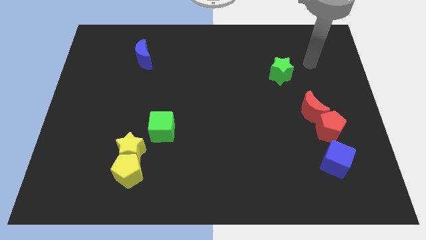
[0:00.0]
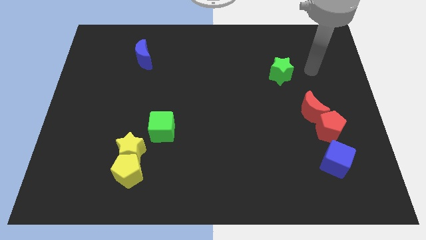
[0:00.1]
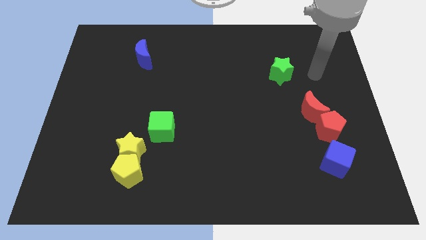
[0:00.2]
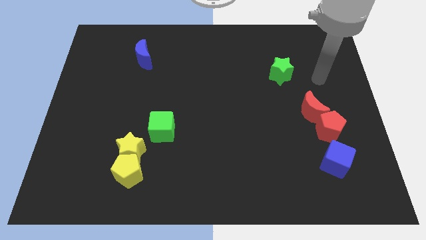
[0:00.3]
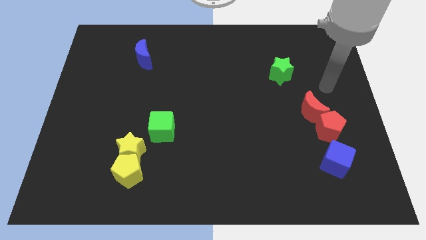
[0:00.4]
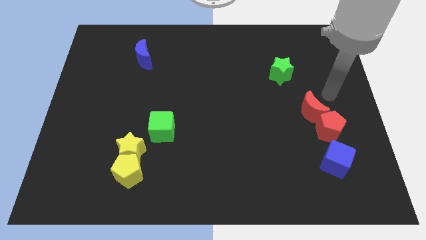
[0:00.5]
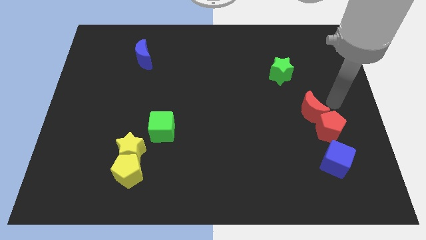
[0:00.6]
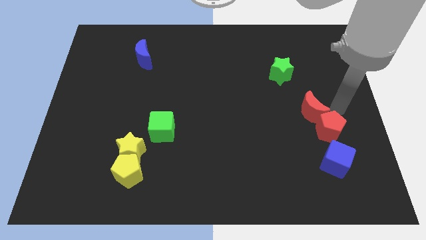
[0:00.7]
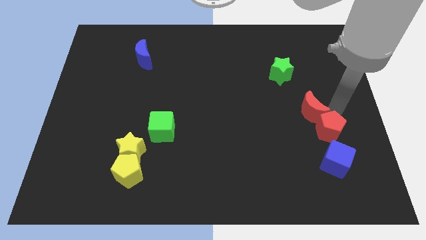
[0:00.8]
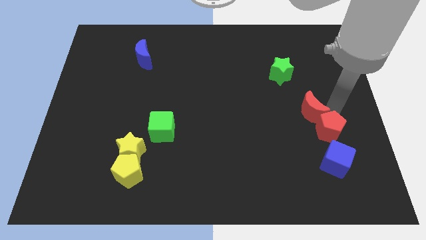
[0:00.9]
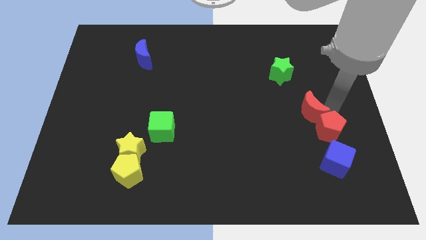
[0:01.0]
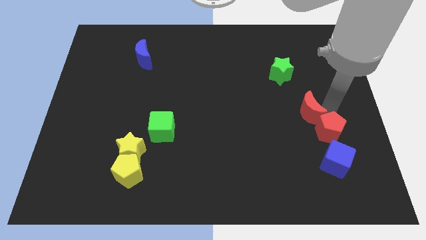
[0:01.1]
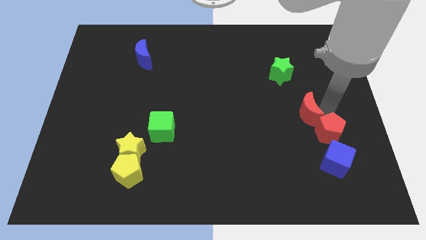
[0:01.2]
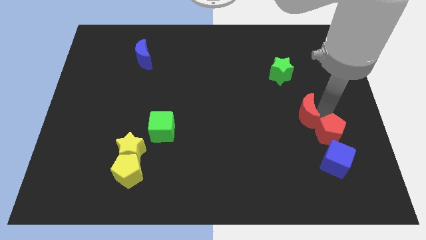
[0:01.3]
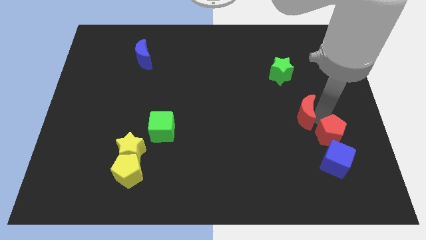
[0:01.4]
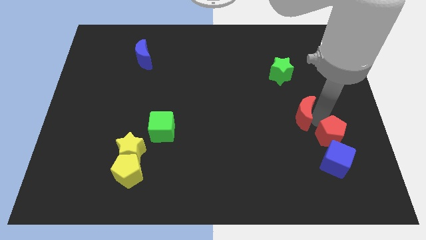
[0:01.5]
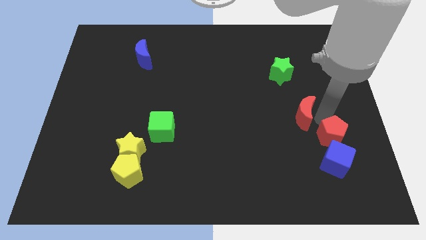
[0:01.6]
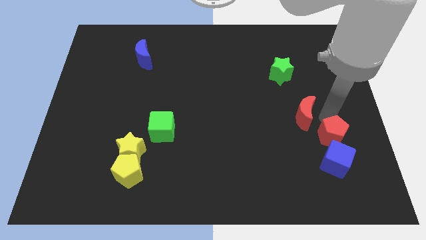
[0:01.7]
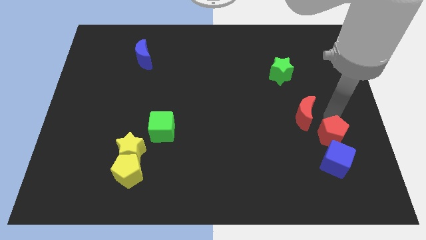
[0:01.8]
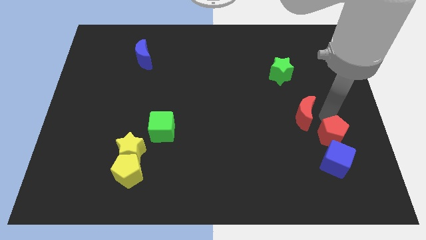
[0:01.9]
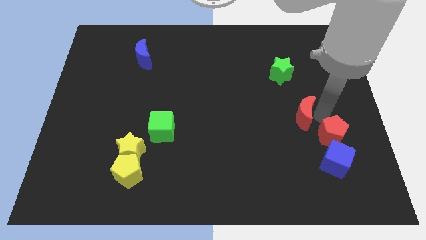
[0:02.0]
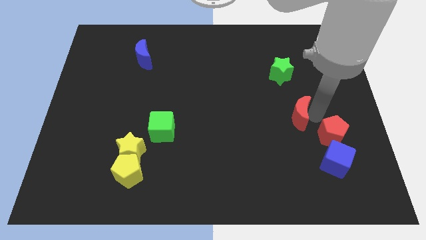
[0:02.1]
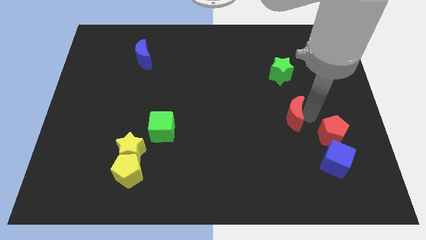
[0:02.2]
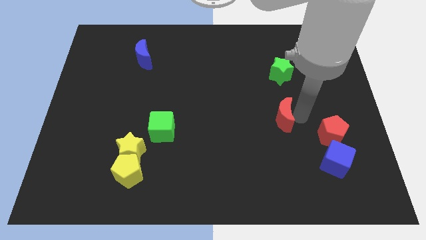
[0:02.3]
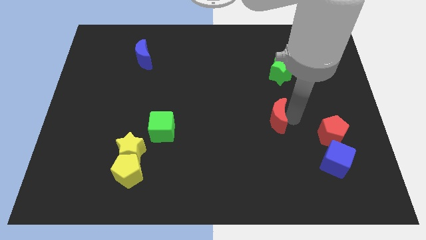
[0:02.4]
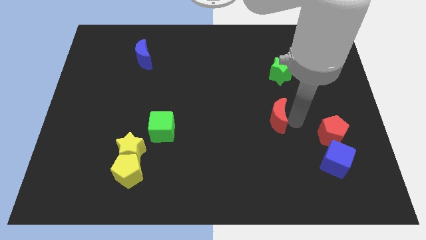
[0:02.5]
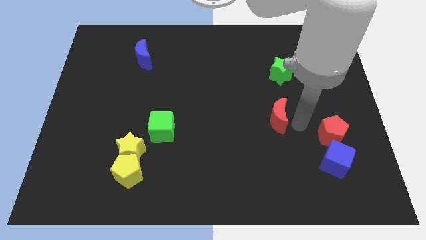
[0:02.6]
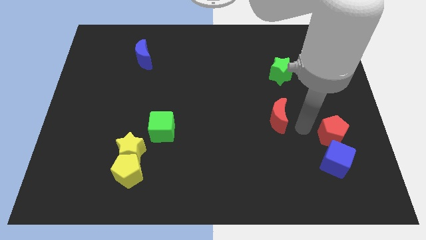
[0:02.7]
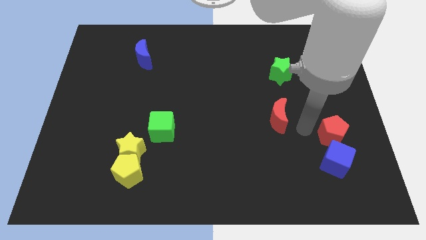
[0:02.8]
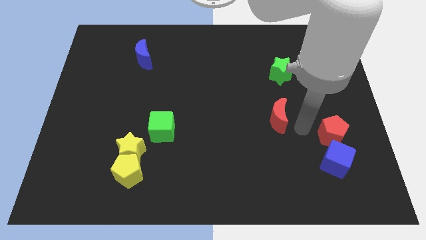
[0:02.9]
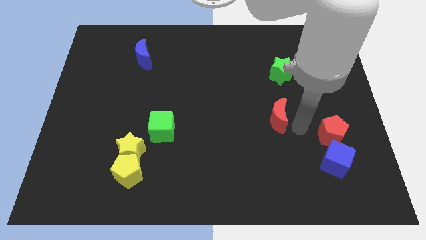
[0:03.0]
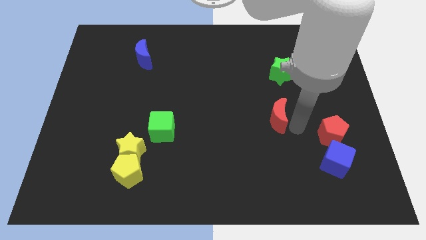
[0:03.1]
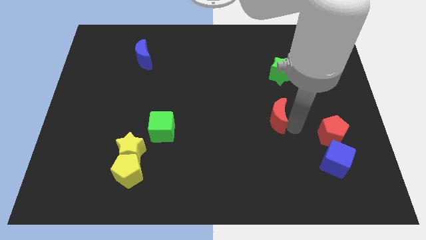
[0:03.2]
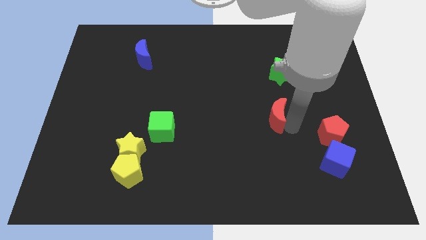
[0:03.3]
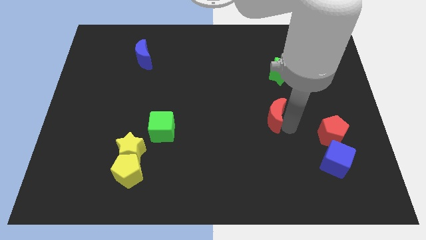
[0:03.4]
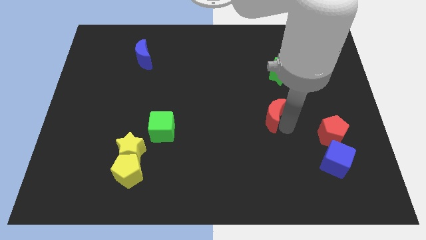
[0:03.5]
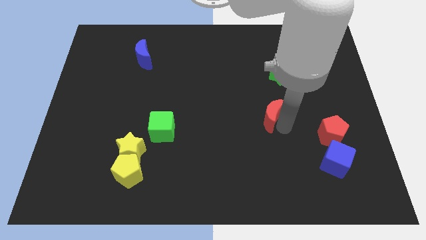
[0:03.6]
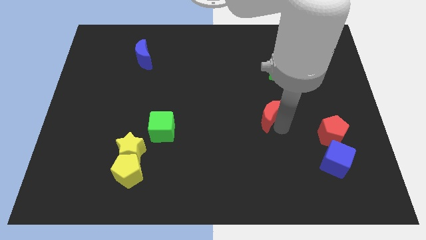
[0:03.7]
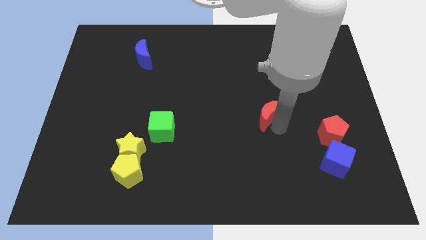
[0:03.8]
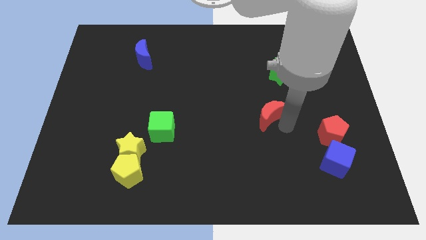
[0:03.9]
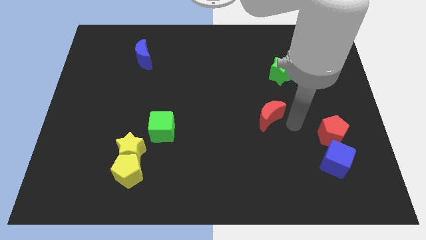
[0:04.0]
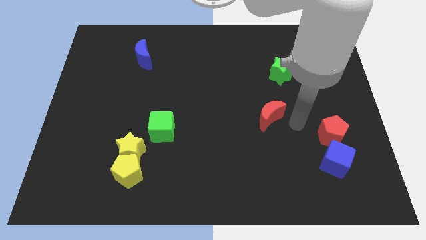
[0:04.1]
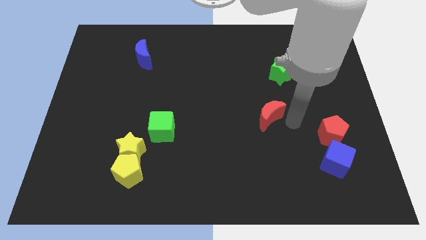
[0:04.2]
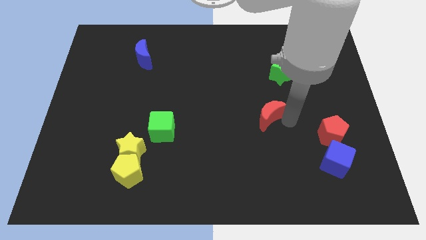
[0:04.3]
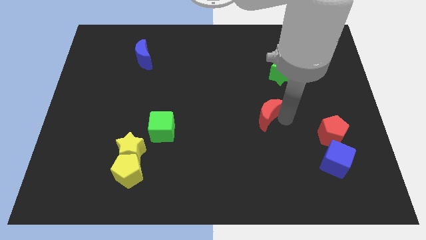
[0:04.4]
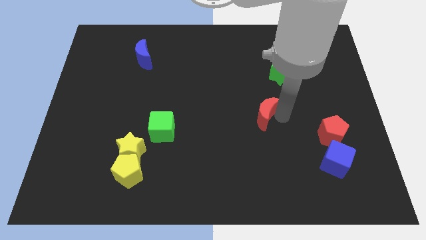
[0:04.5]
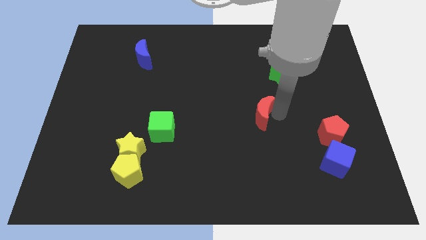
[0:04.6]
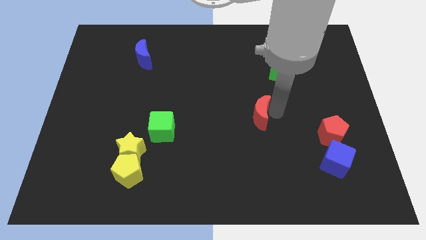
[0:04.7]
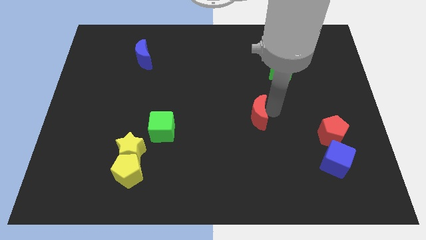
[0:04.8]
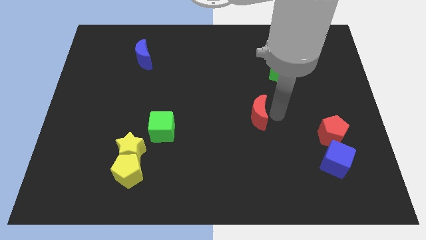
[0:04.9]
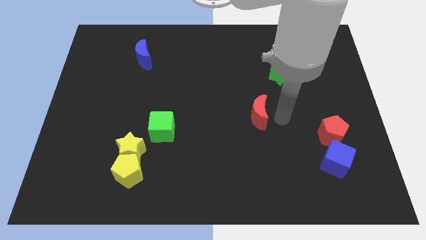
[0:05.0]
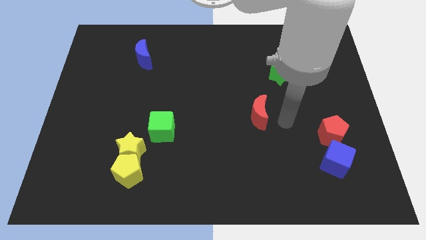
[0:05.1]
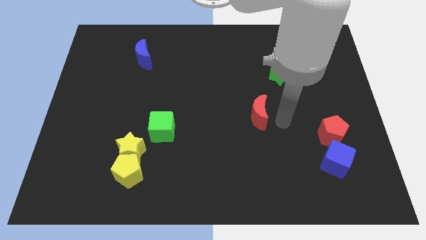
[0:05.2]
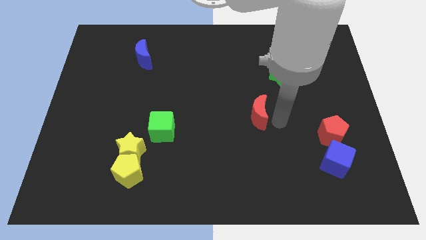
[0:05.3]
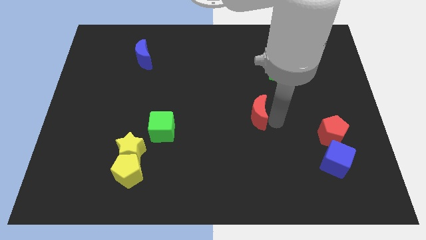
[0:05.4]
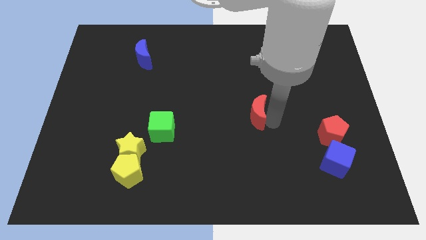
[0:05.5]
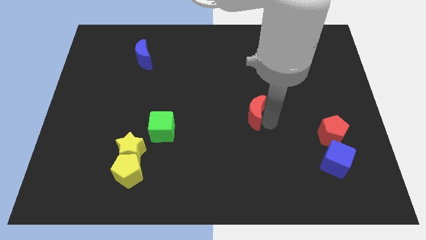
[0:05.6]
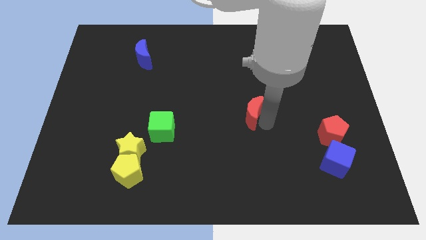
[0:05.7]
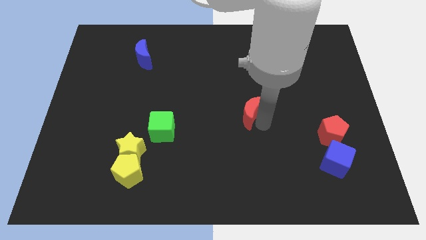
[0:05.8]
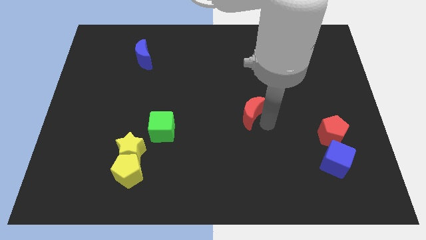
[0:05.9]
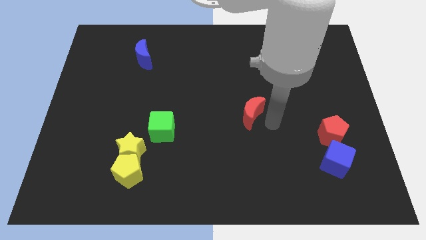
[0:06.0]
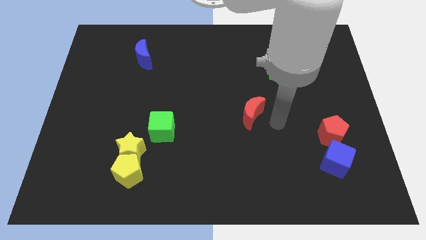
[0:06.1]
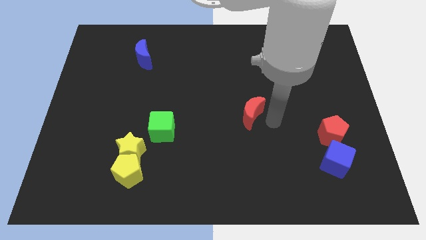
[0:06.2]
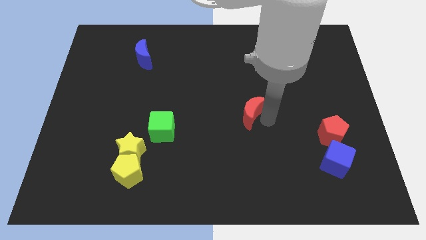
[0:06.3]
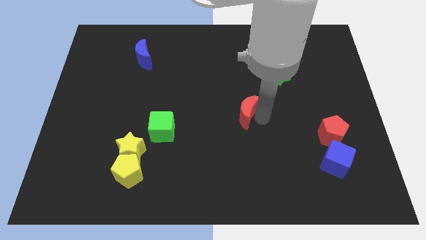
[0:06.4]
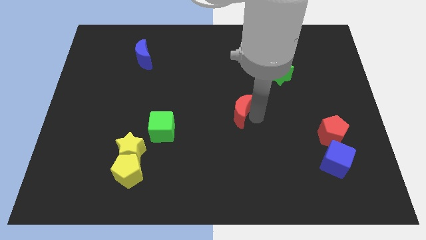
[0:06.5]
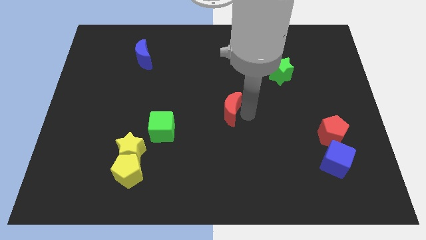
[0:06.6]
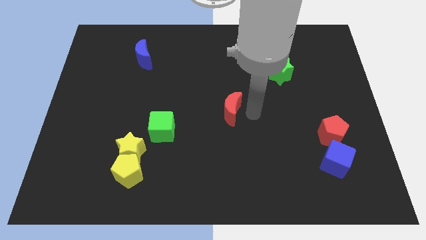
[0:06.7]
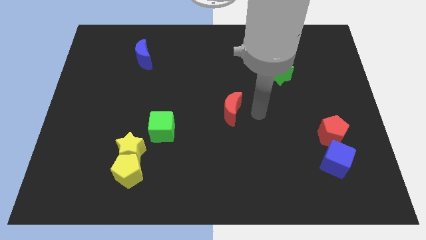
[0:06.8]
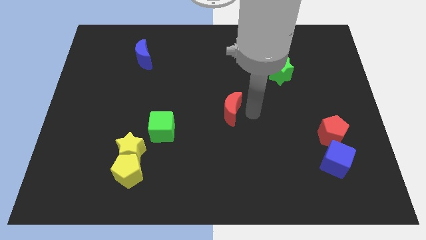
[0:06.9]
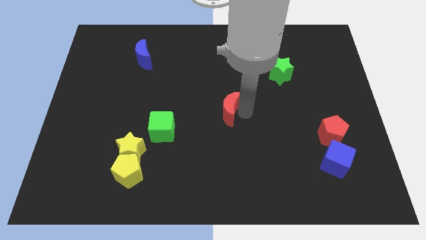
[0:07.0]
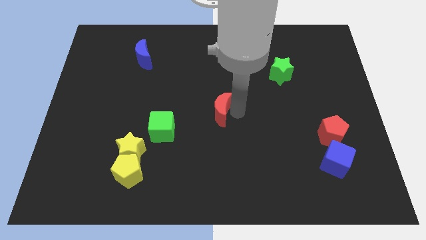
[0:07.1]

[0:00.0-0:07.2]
slide the red moon to the left

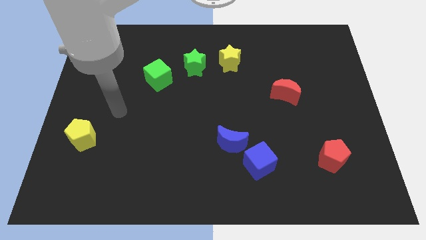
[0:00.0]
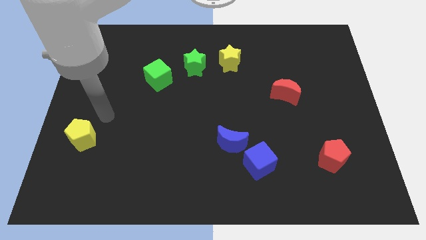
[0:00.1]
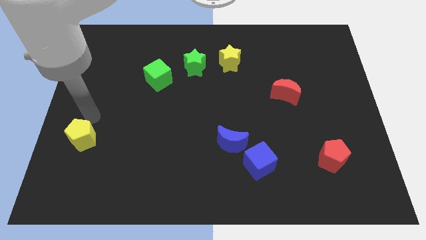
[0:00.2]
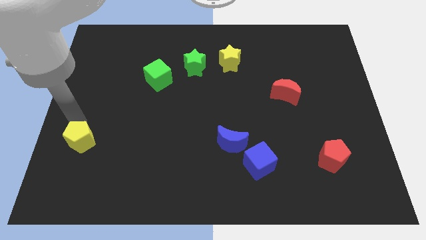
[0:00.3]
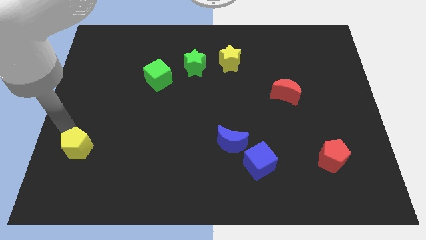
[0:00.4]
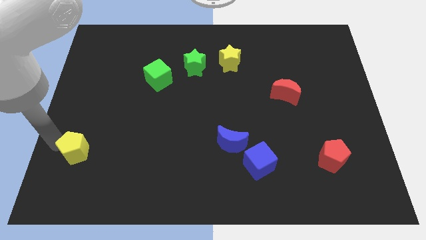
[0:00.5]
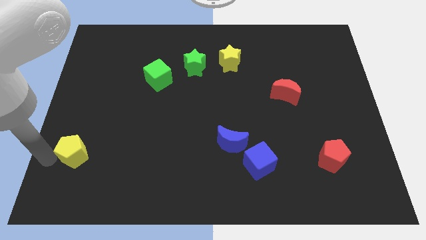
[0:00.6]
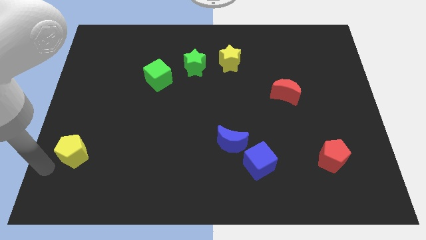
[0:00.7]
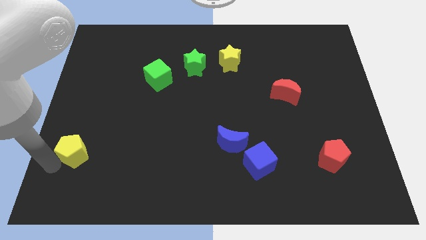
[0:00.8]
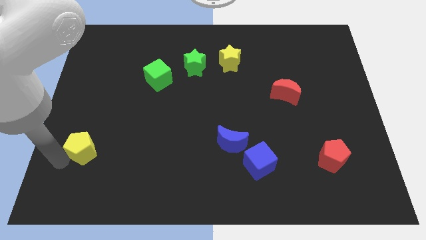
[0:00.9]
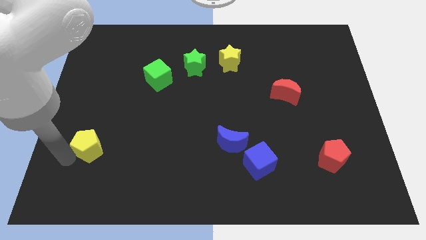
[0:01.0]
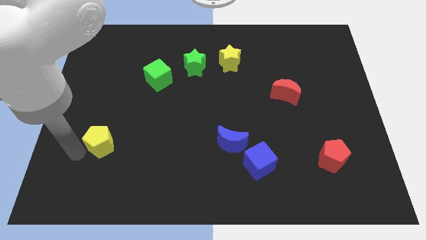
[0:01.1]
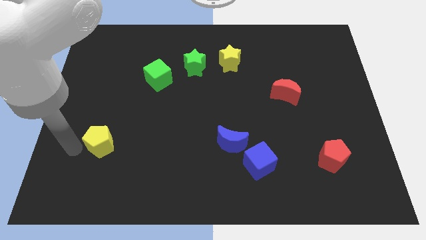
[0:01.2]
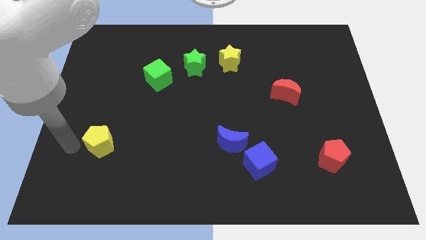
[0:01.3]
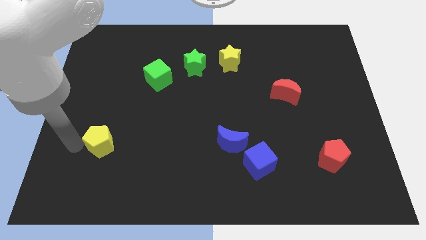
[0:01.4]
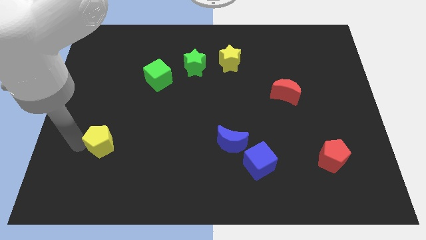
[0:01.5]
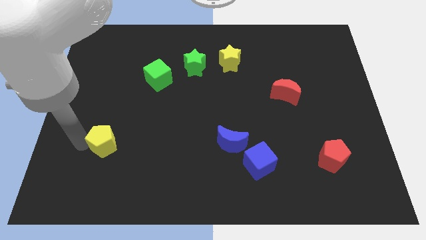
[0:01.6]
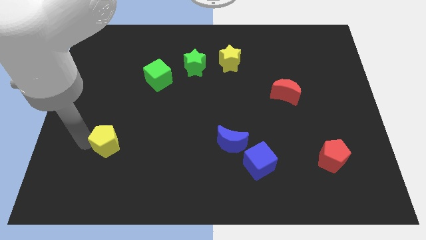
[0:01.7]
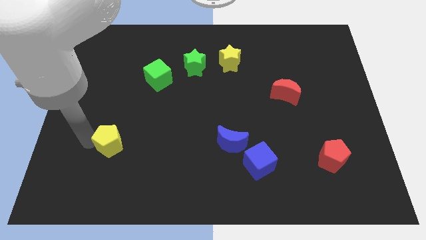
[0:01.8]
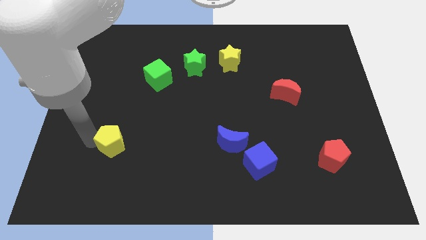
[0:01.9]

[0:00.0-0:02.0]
move the yellow pentagon to the right somewhat
